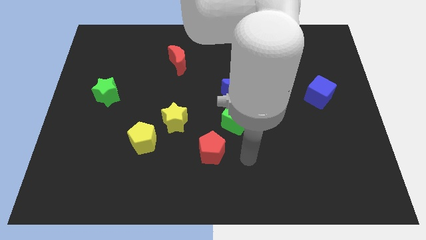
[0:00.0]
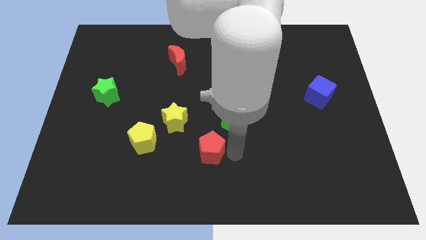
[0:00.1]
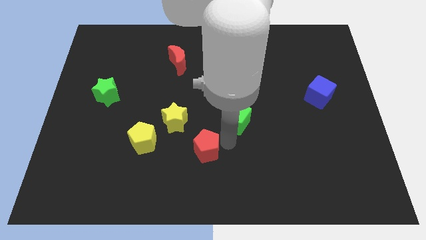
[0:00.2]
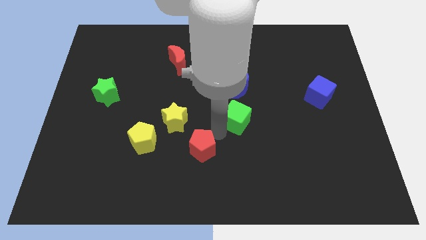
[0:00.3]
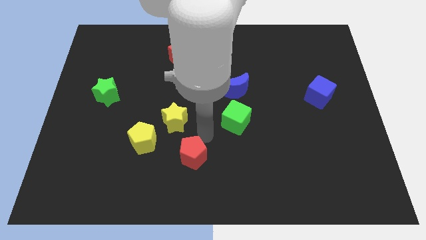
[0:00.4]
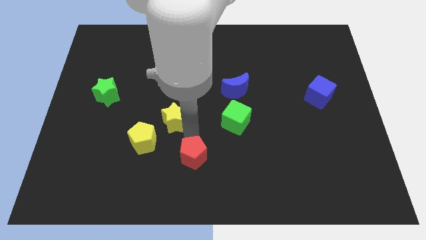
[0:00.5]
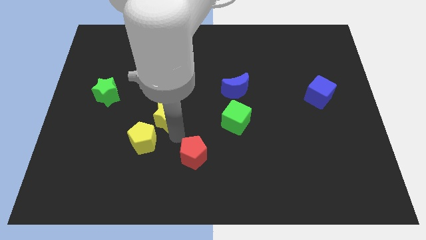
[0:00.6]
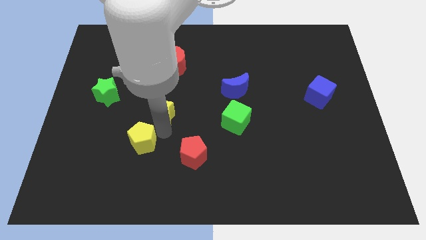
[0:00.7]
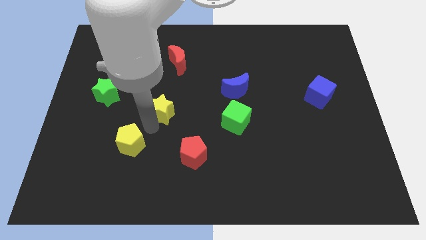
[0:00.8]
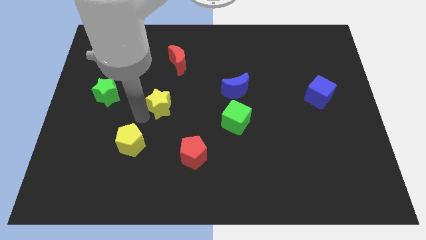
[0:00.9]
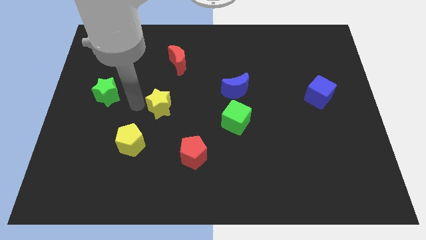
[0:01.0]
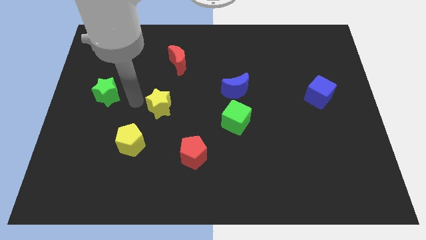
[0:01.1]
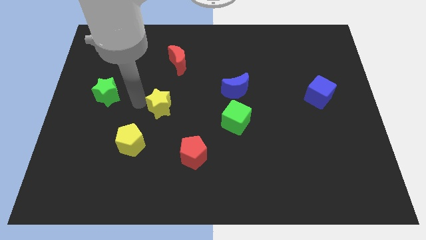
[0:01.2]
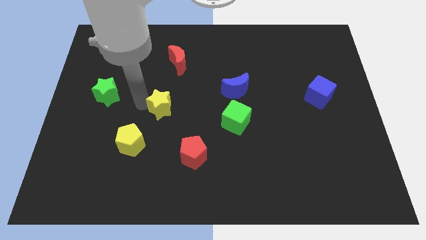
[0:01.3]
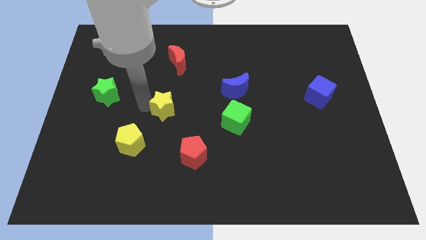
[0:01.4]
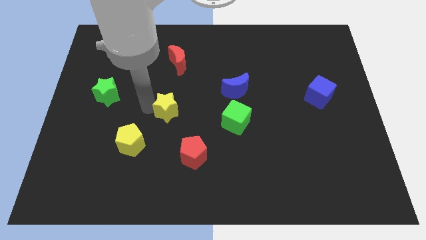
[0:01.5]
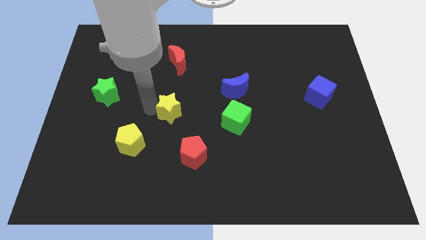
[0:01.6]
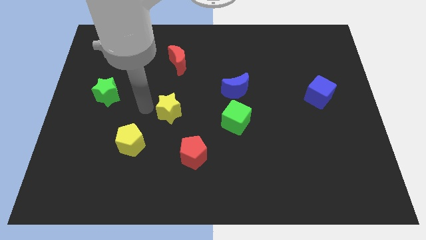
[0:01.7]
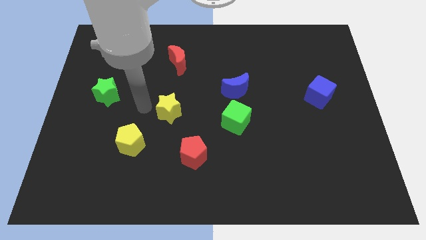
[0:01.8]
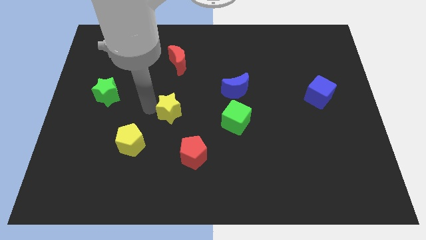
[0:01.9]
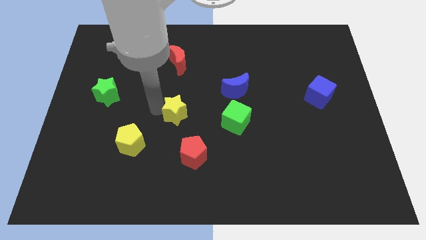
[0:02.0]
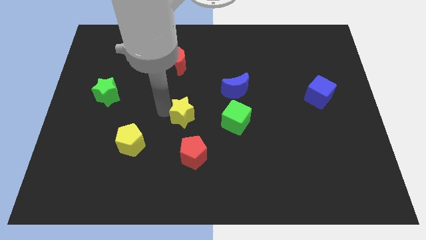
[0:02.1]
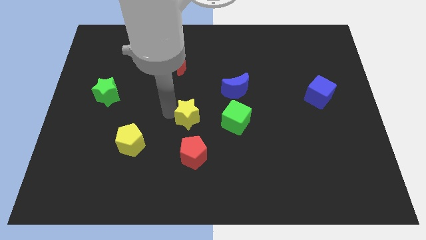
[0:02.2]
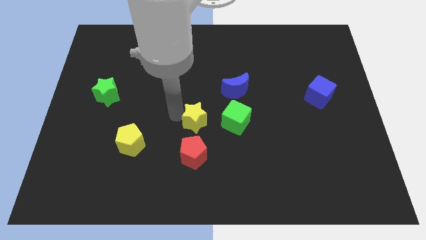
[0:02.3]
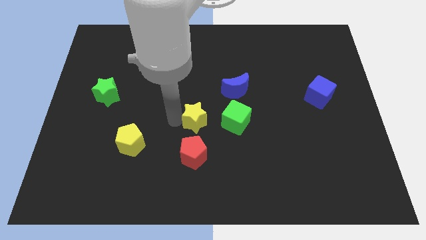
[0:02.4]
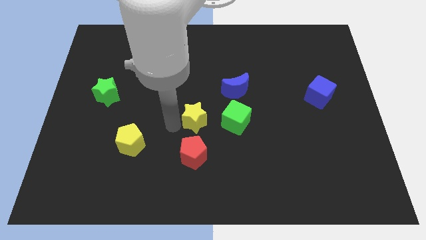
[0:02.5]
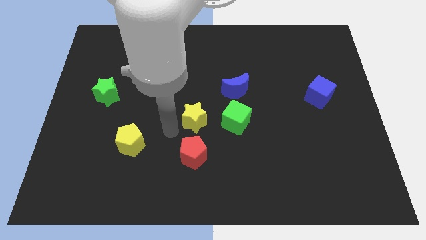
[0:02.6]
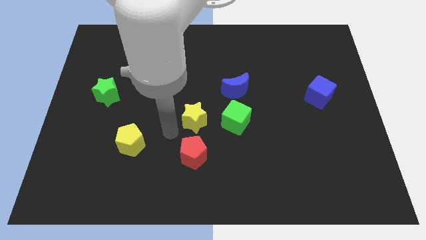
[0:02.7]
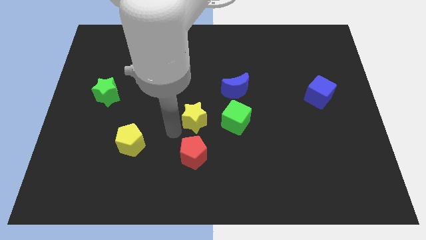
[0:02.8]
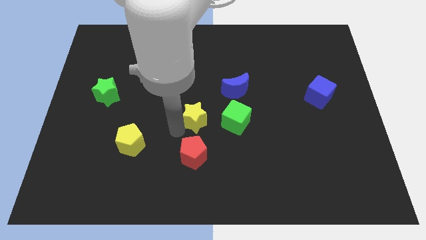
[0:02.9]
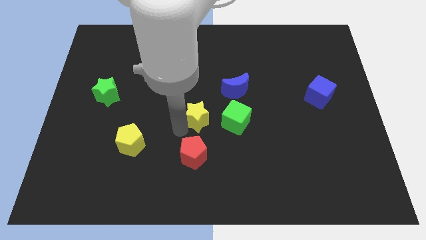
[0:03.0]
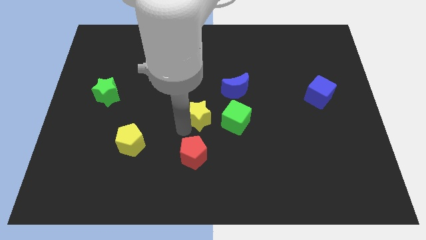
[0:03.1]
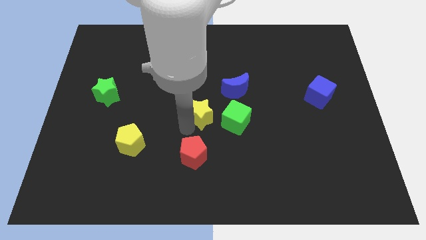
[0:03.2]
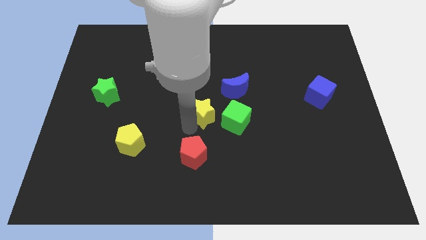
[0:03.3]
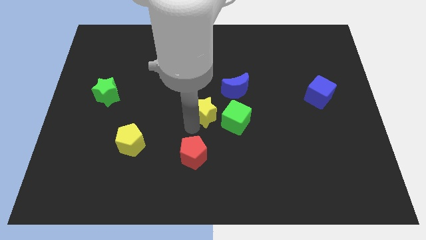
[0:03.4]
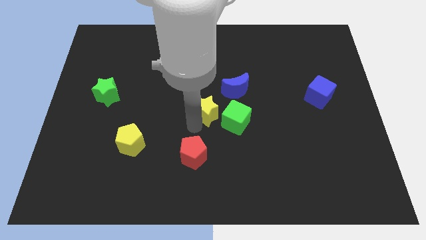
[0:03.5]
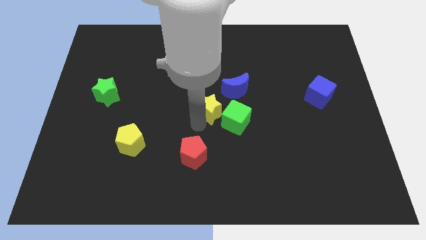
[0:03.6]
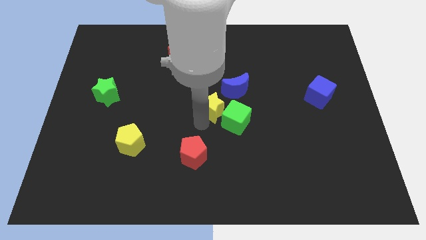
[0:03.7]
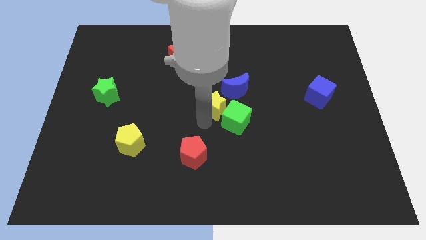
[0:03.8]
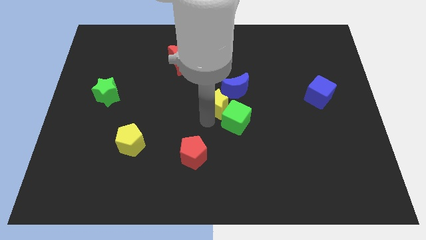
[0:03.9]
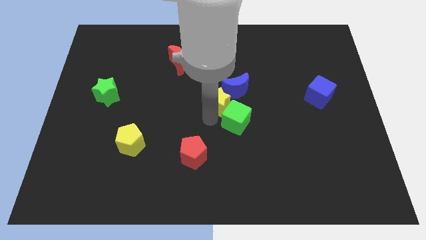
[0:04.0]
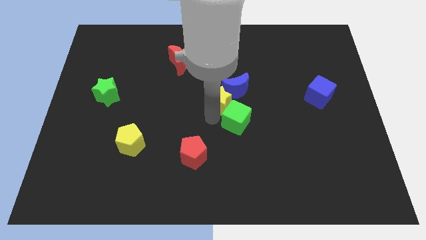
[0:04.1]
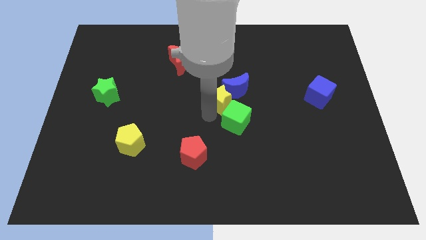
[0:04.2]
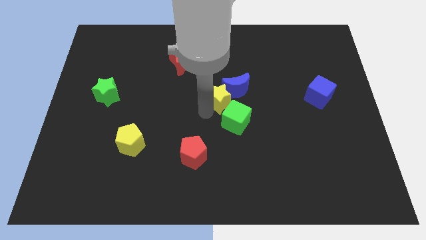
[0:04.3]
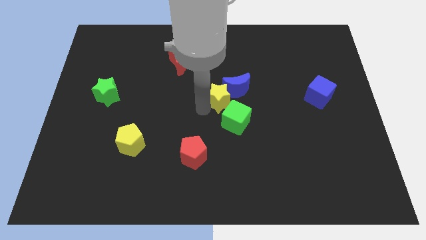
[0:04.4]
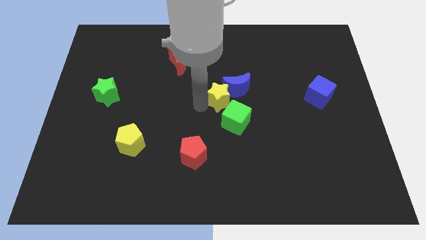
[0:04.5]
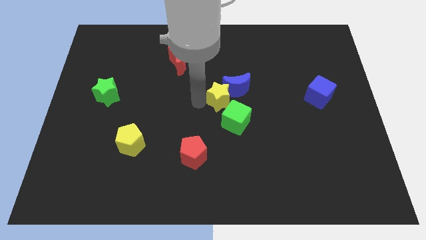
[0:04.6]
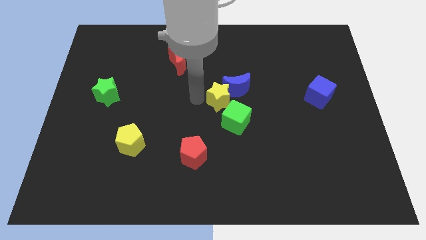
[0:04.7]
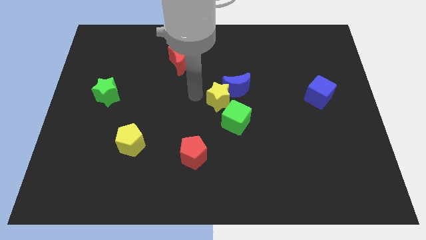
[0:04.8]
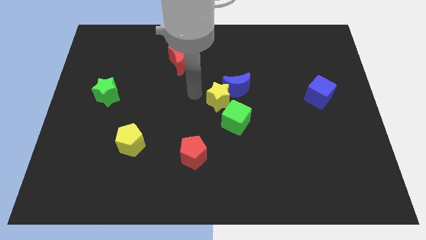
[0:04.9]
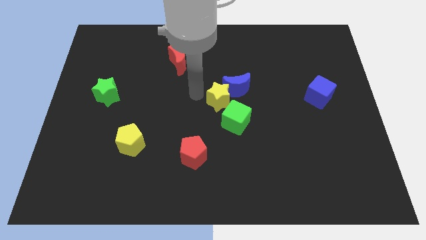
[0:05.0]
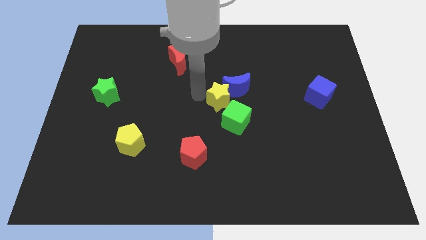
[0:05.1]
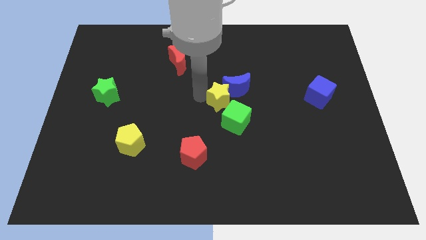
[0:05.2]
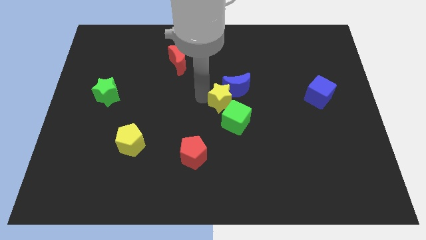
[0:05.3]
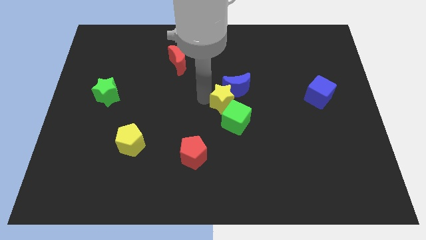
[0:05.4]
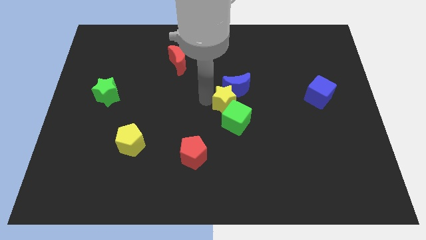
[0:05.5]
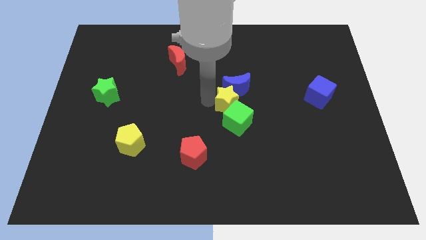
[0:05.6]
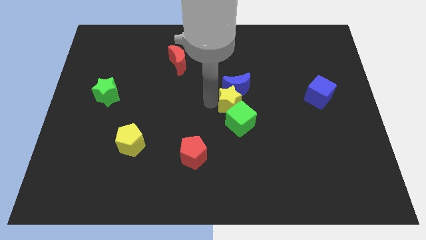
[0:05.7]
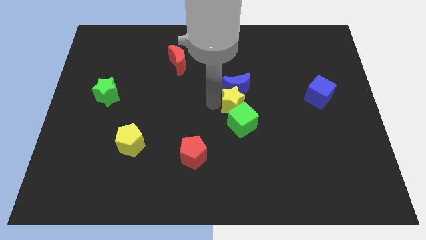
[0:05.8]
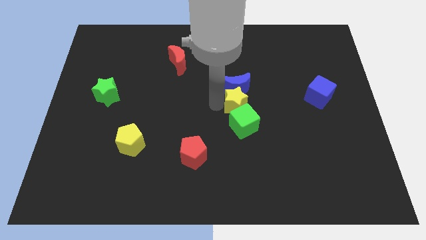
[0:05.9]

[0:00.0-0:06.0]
push the yellow star to the top right side of the green cube

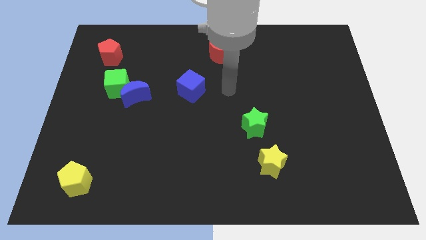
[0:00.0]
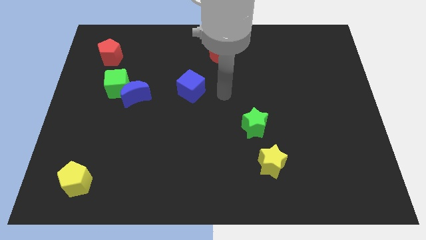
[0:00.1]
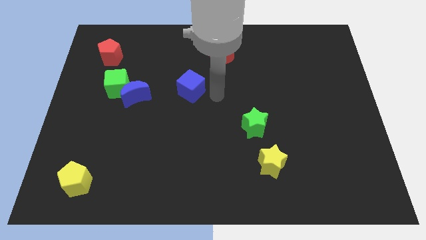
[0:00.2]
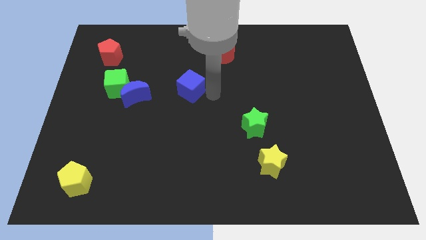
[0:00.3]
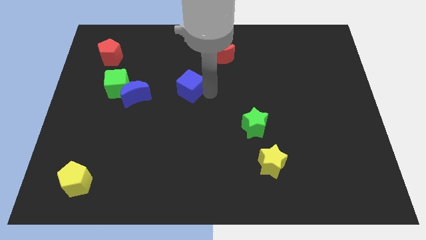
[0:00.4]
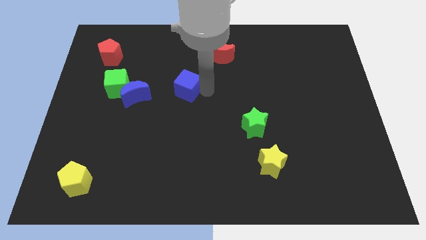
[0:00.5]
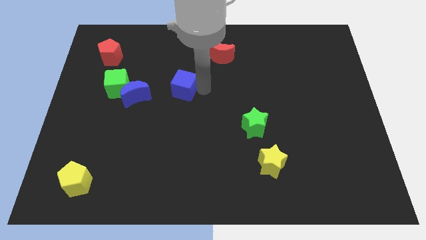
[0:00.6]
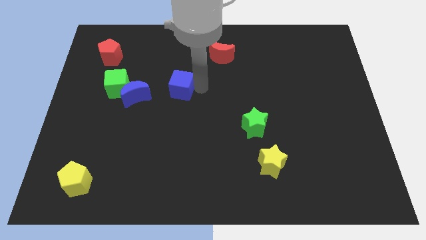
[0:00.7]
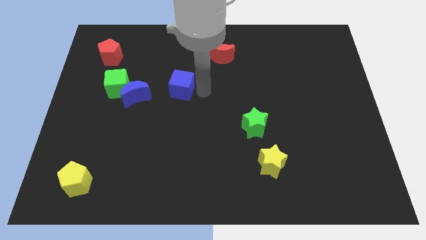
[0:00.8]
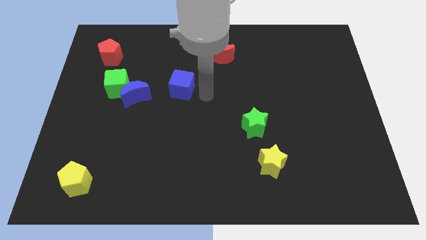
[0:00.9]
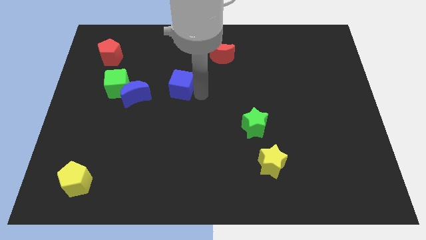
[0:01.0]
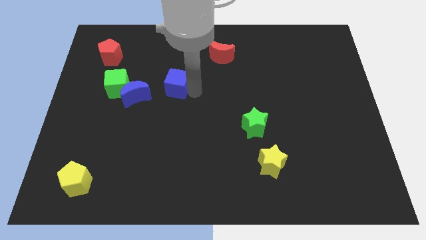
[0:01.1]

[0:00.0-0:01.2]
put the blue cube to the top right side of the blue moon
